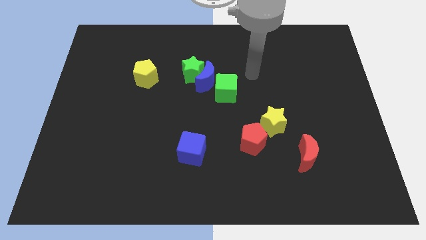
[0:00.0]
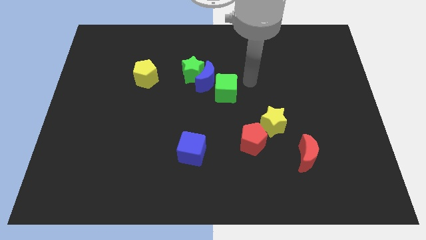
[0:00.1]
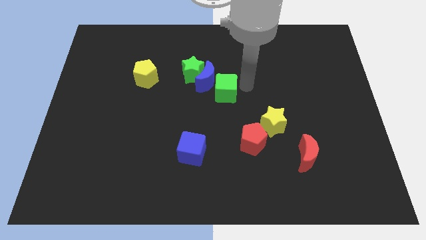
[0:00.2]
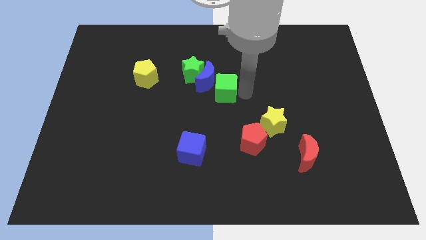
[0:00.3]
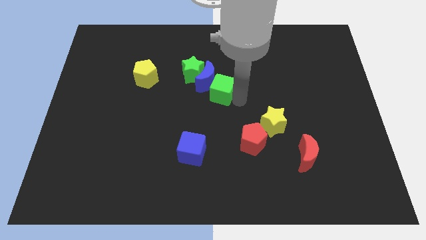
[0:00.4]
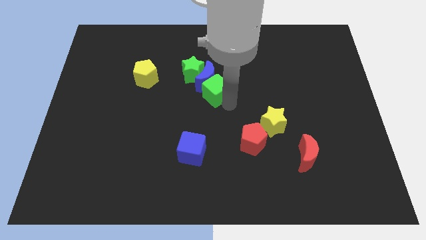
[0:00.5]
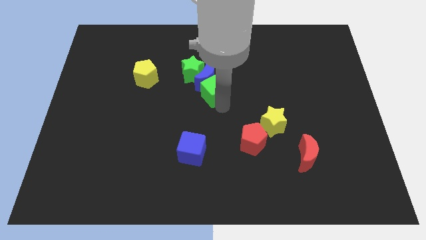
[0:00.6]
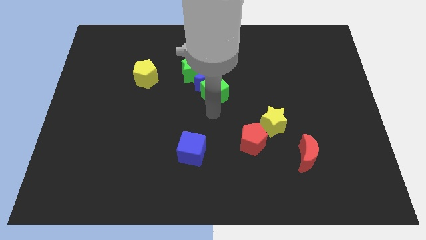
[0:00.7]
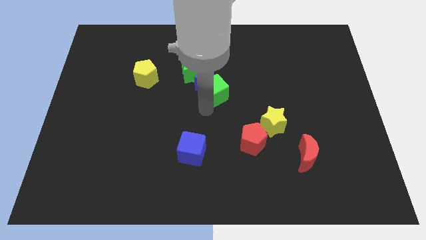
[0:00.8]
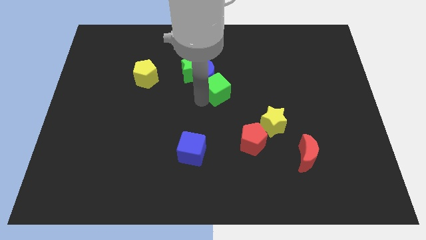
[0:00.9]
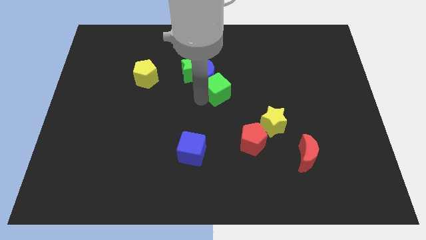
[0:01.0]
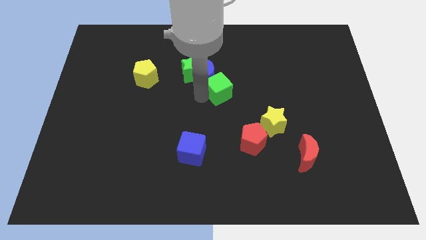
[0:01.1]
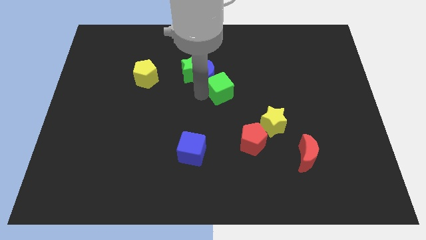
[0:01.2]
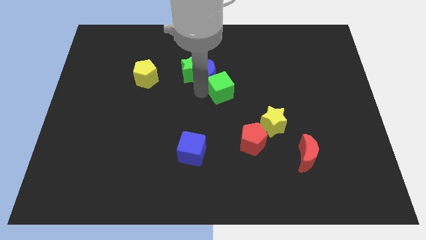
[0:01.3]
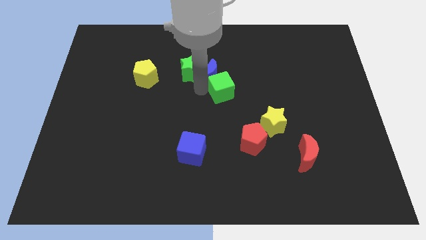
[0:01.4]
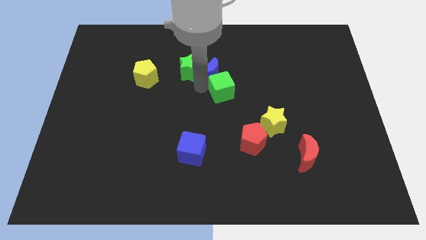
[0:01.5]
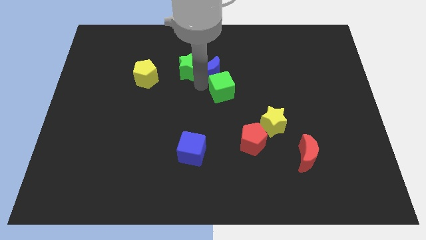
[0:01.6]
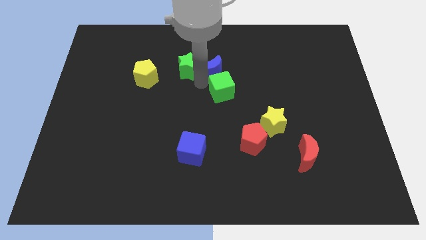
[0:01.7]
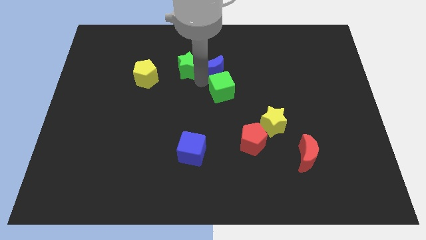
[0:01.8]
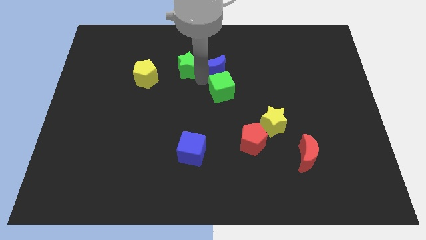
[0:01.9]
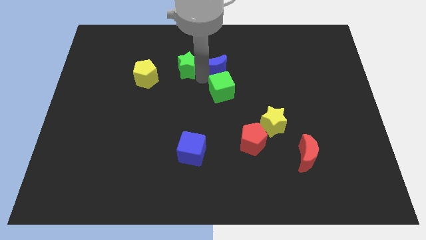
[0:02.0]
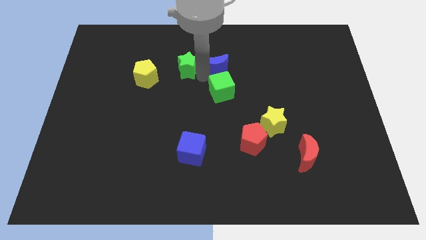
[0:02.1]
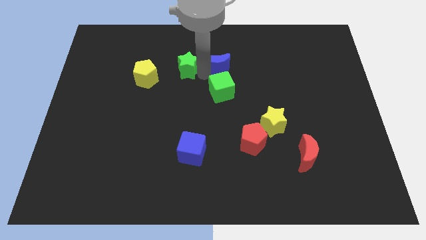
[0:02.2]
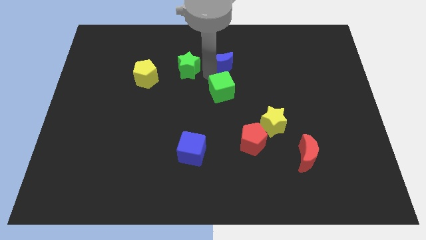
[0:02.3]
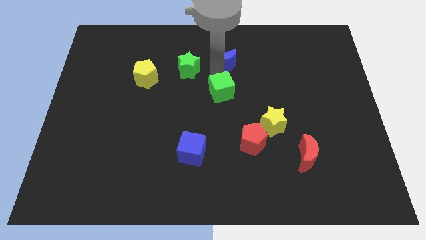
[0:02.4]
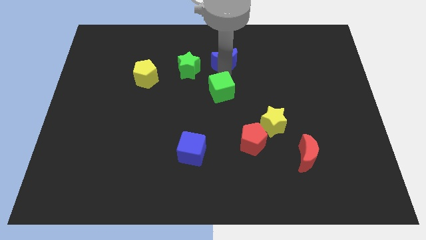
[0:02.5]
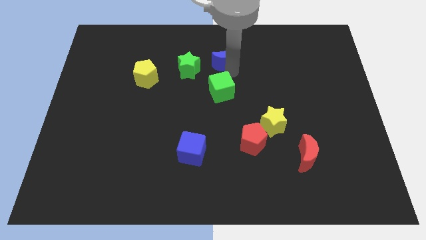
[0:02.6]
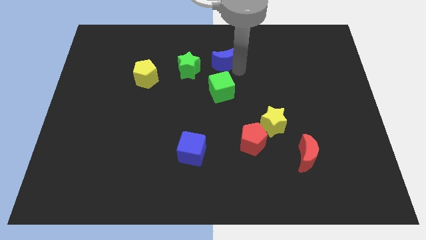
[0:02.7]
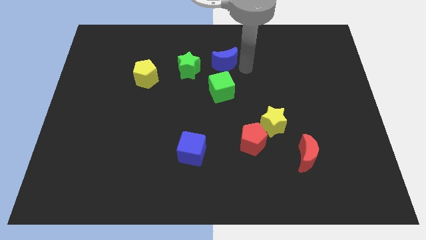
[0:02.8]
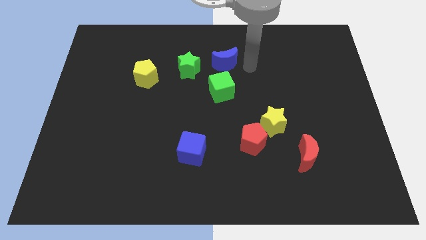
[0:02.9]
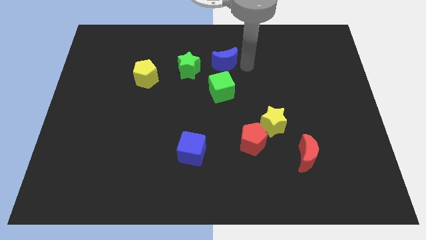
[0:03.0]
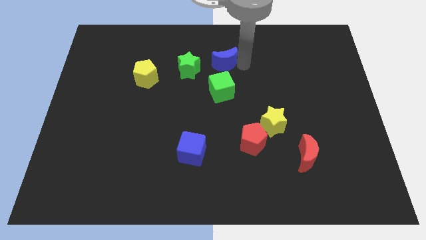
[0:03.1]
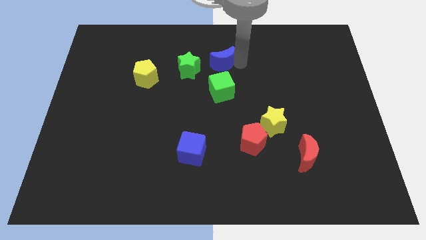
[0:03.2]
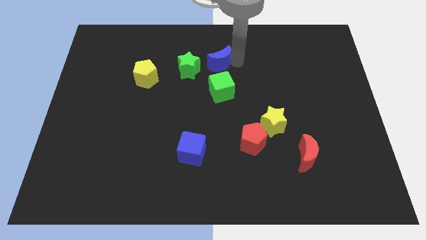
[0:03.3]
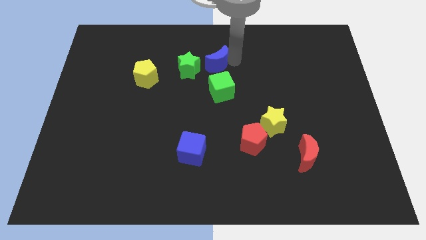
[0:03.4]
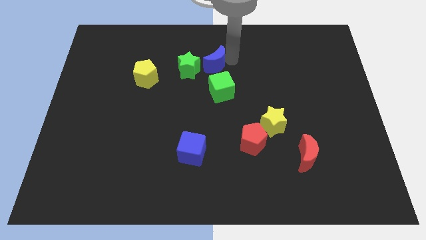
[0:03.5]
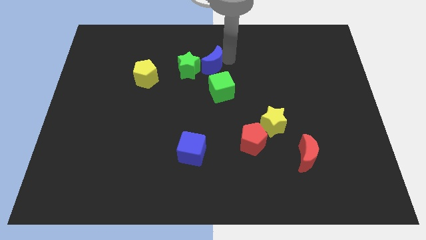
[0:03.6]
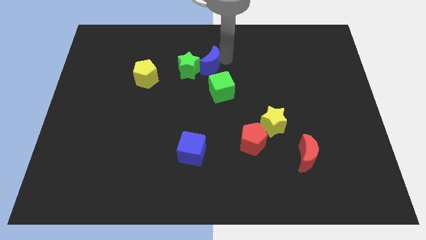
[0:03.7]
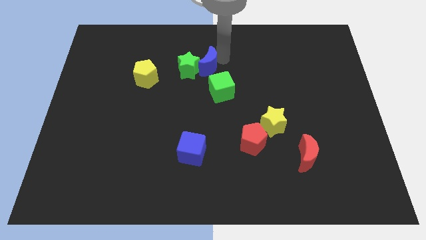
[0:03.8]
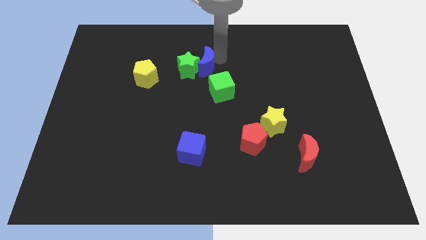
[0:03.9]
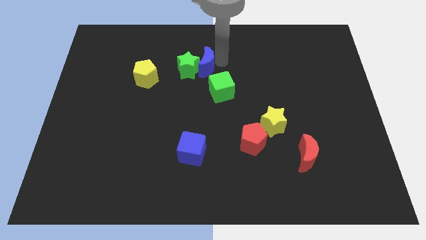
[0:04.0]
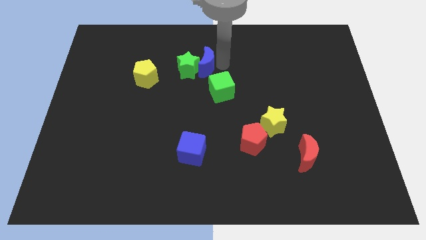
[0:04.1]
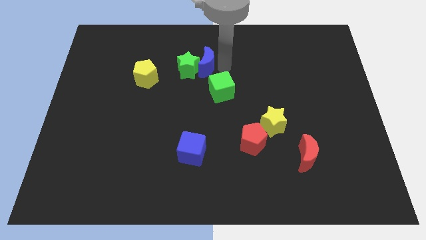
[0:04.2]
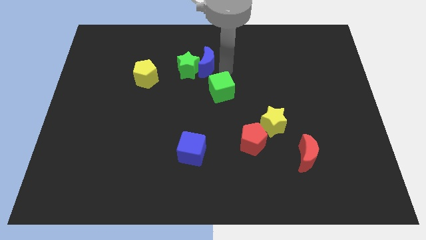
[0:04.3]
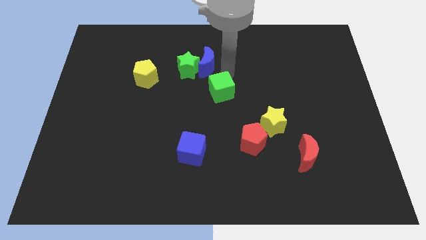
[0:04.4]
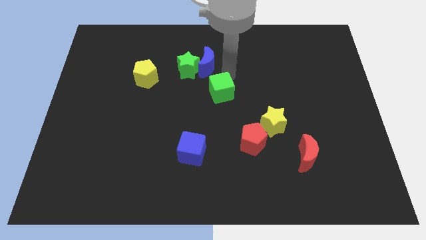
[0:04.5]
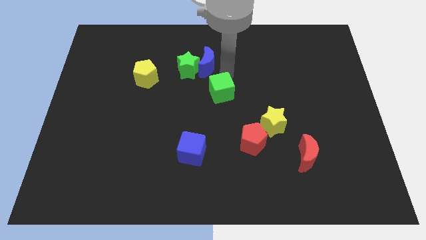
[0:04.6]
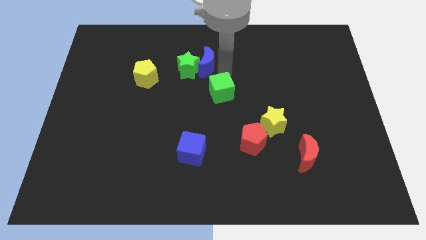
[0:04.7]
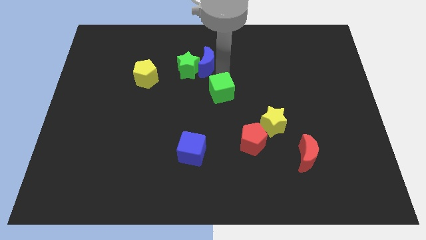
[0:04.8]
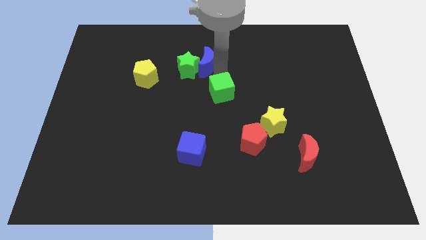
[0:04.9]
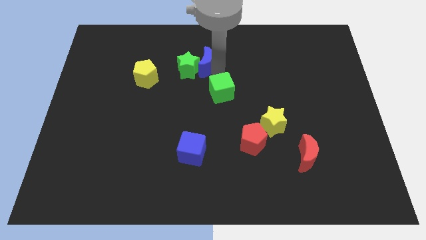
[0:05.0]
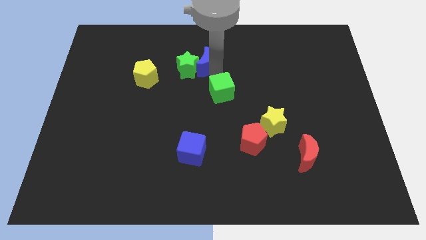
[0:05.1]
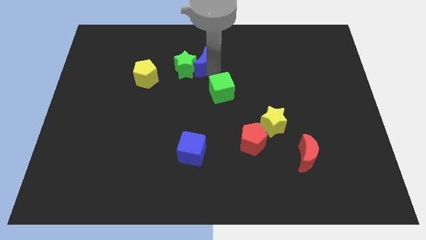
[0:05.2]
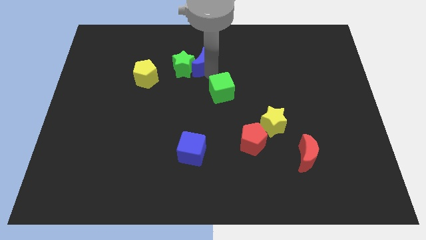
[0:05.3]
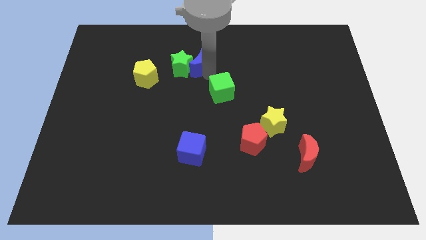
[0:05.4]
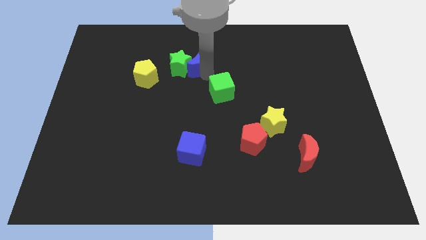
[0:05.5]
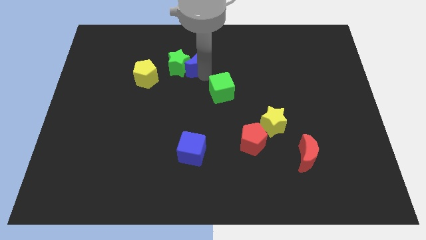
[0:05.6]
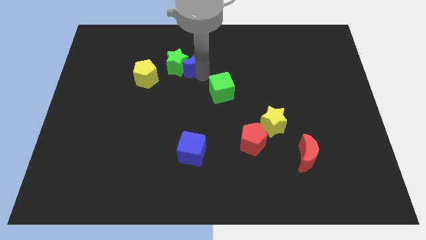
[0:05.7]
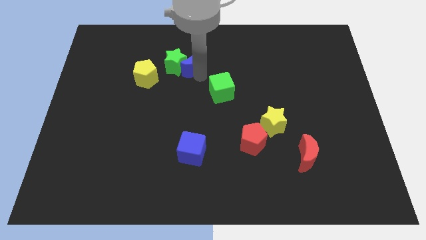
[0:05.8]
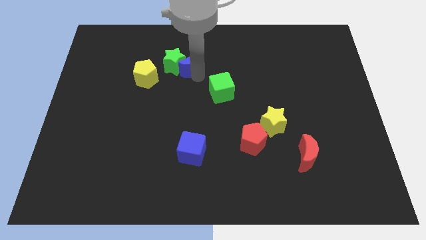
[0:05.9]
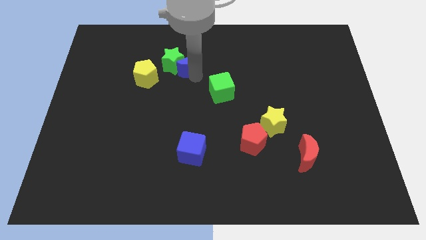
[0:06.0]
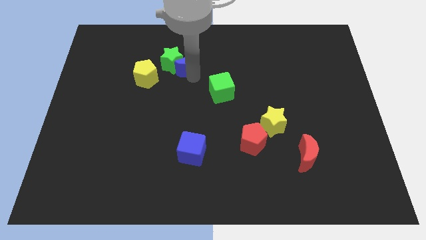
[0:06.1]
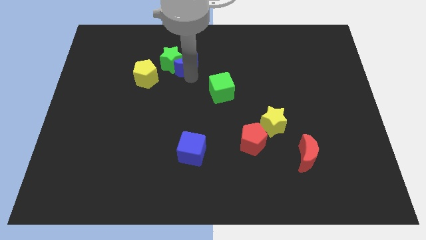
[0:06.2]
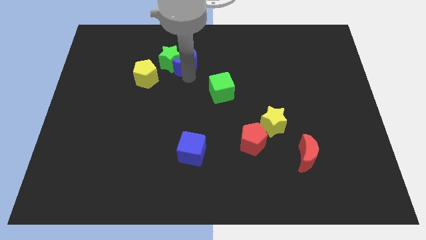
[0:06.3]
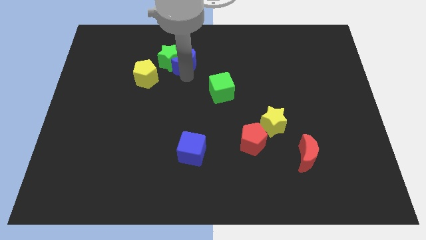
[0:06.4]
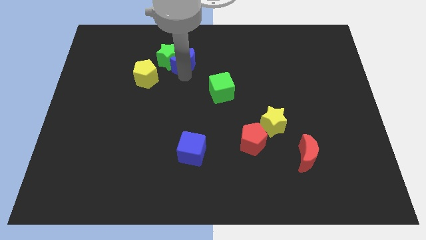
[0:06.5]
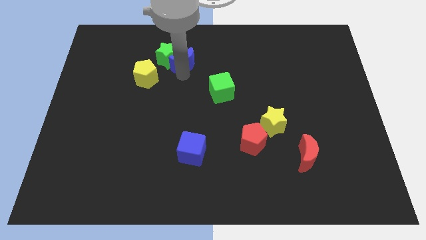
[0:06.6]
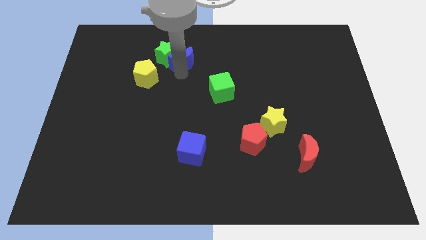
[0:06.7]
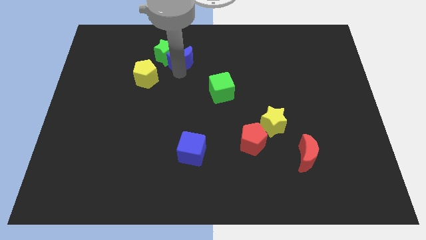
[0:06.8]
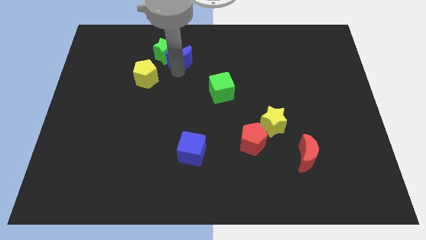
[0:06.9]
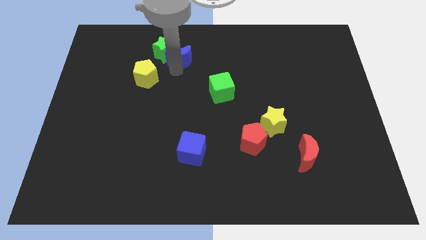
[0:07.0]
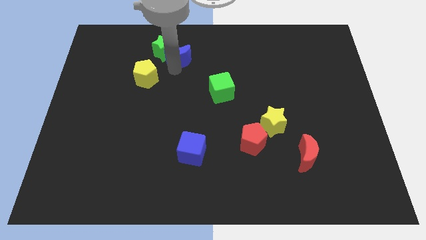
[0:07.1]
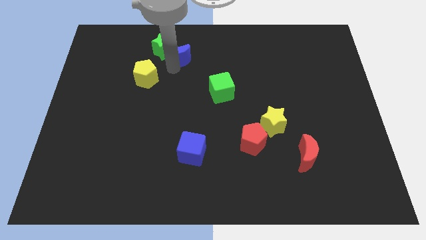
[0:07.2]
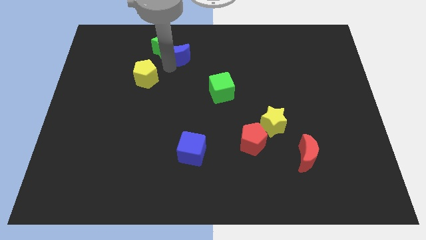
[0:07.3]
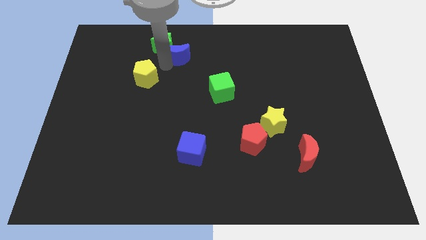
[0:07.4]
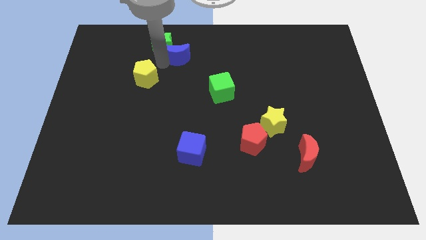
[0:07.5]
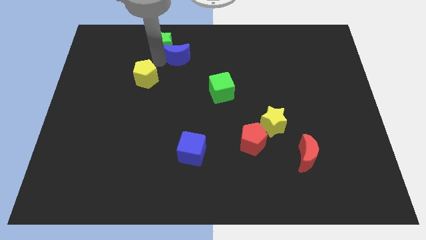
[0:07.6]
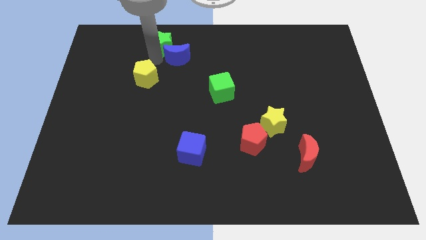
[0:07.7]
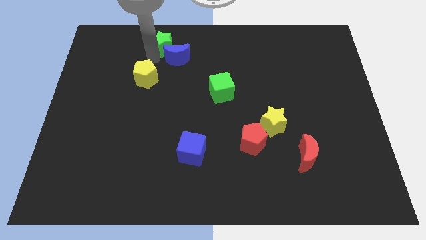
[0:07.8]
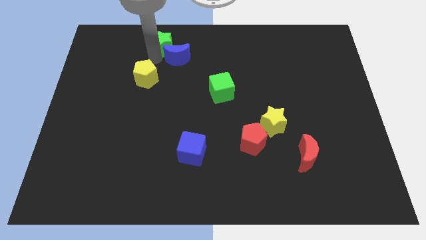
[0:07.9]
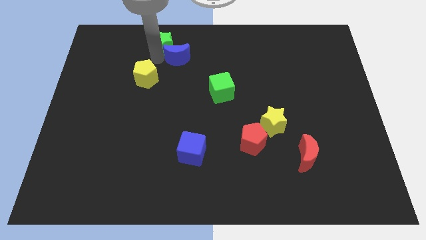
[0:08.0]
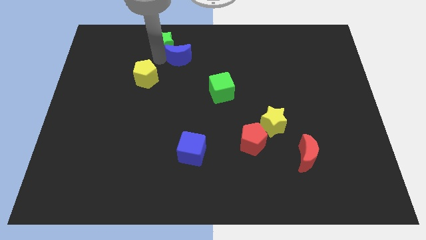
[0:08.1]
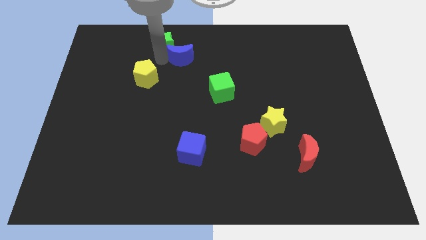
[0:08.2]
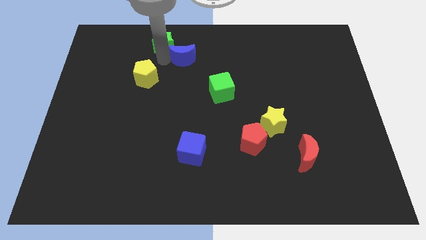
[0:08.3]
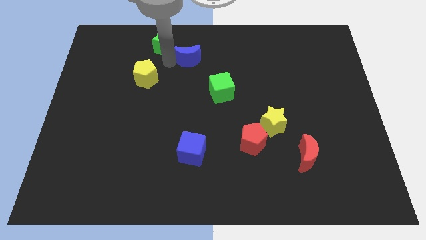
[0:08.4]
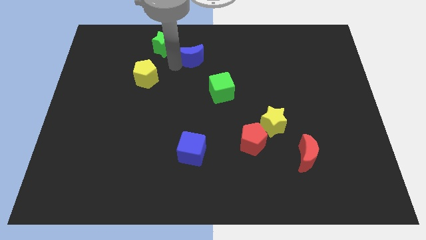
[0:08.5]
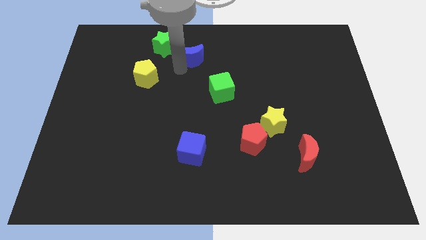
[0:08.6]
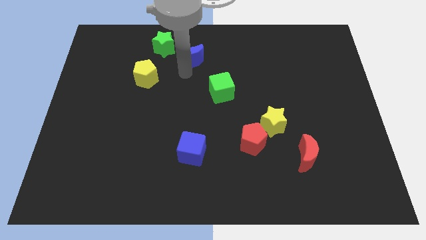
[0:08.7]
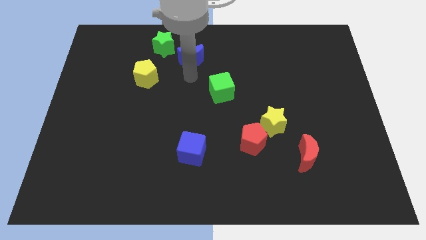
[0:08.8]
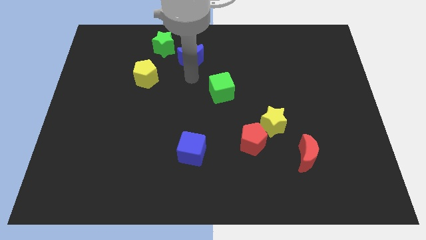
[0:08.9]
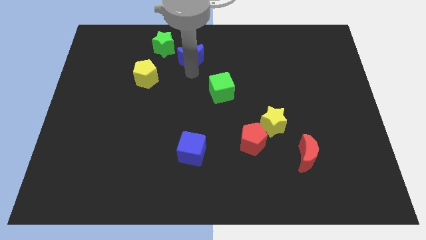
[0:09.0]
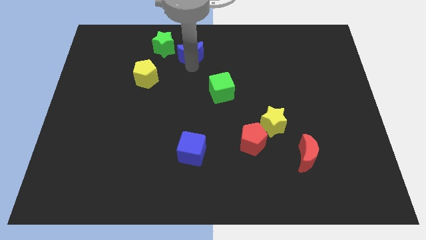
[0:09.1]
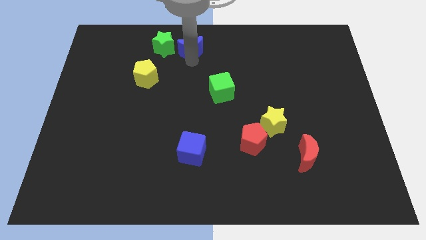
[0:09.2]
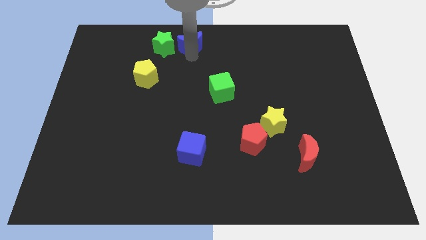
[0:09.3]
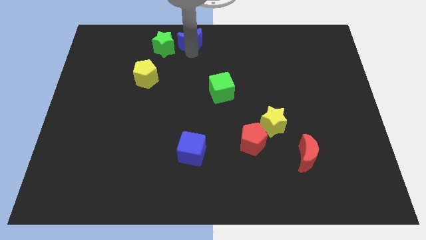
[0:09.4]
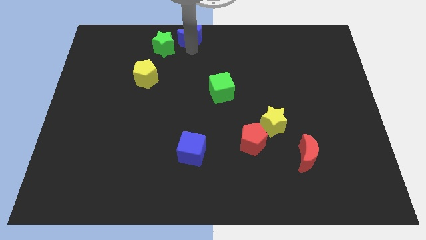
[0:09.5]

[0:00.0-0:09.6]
move the blue moon away from the green star and green cube

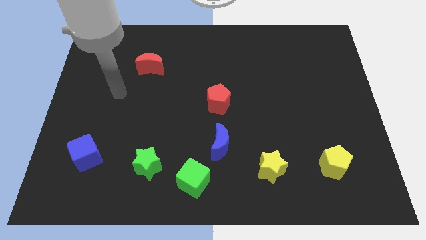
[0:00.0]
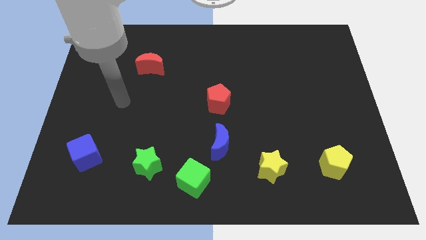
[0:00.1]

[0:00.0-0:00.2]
move the blue moon away from the green cube
